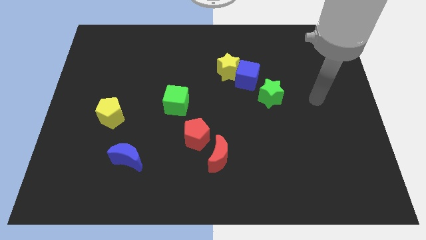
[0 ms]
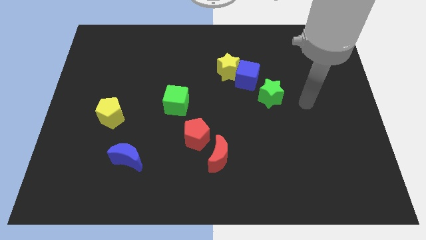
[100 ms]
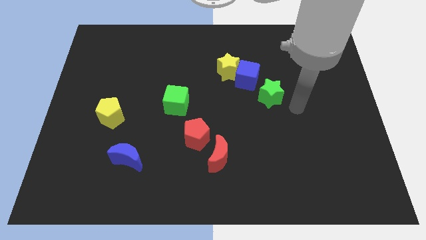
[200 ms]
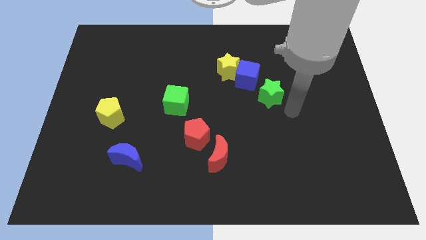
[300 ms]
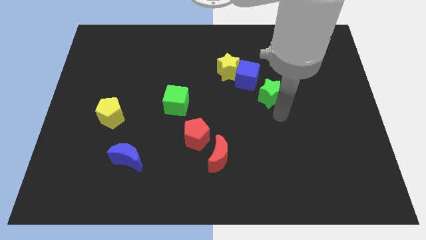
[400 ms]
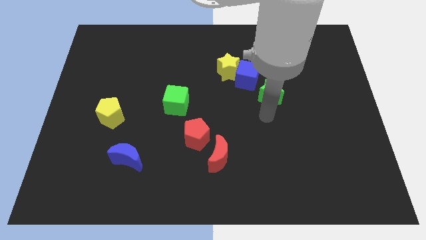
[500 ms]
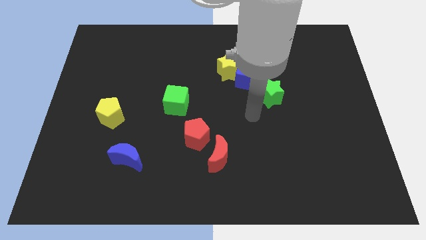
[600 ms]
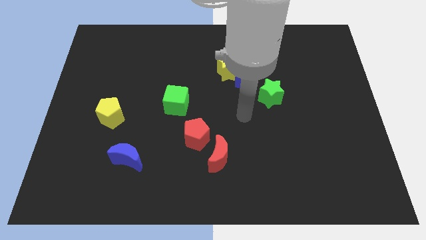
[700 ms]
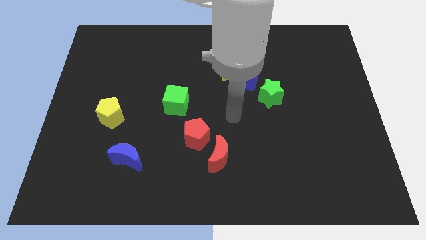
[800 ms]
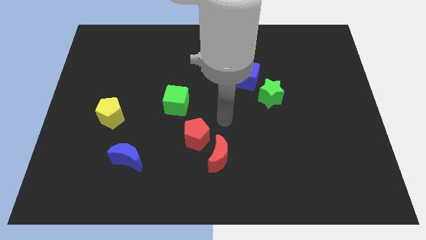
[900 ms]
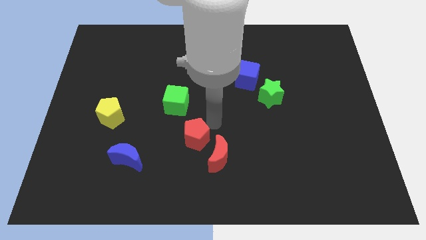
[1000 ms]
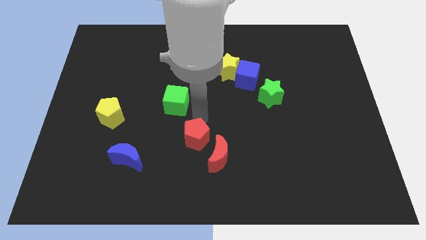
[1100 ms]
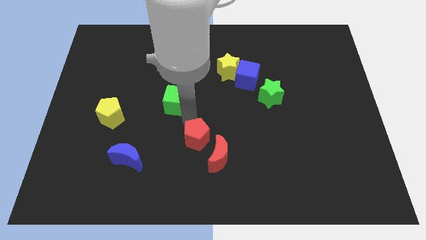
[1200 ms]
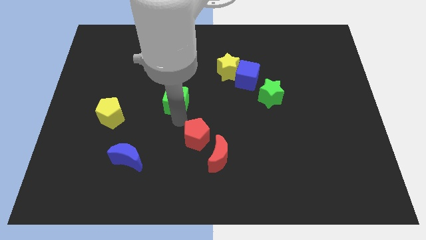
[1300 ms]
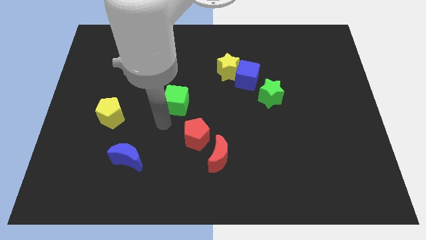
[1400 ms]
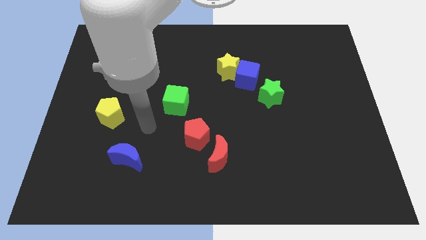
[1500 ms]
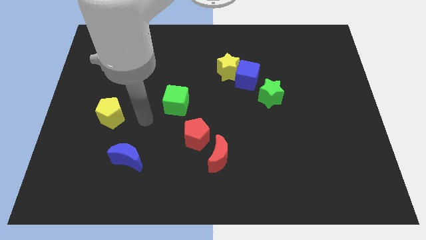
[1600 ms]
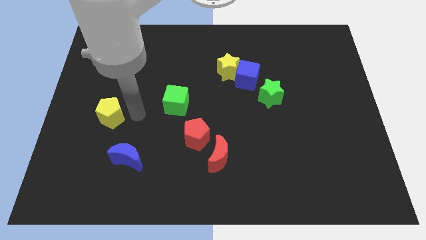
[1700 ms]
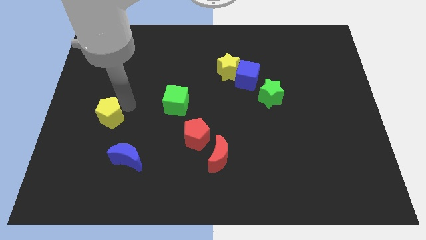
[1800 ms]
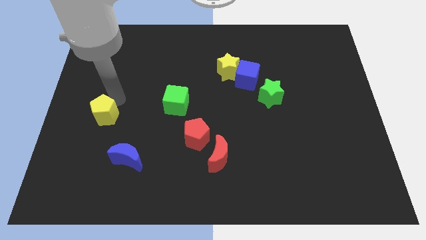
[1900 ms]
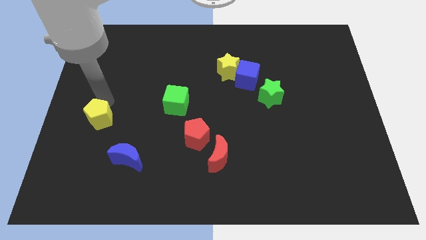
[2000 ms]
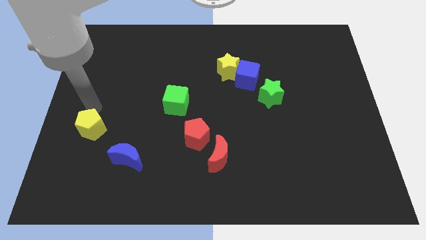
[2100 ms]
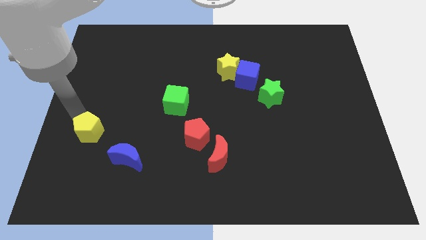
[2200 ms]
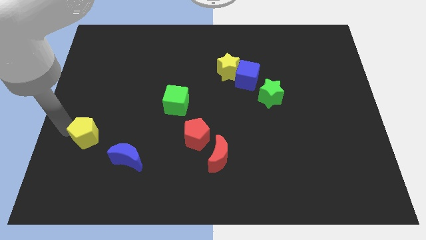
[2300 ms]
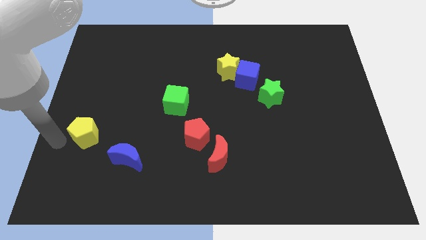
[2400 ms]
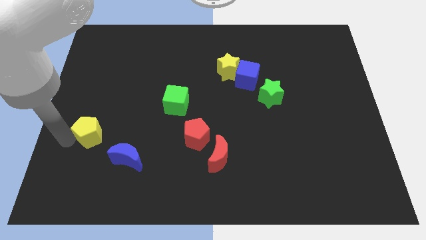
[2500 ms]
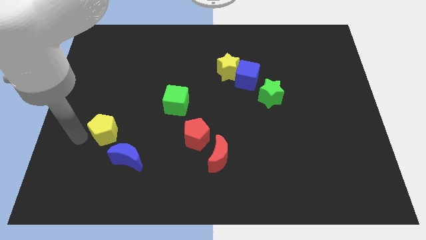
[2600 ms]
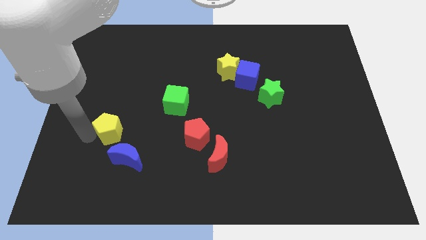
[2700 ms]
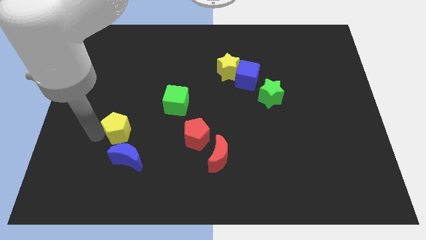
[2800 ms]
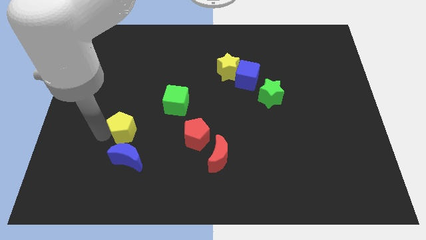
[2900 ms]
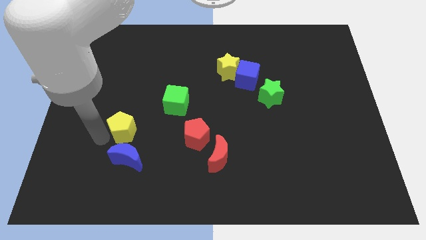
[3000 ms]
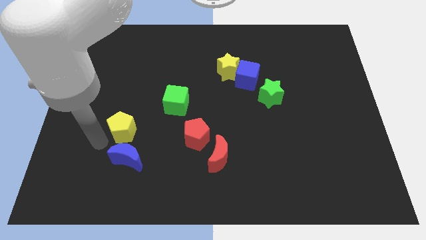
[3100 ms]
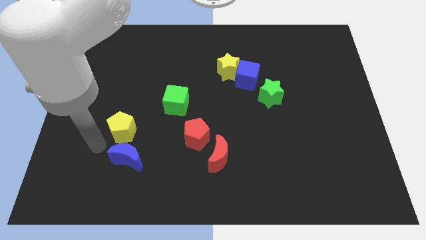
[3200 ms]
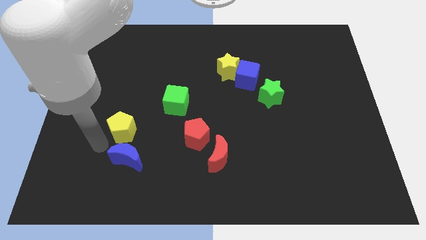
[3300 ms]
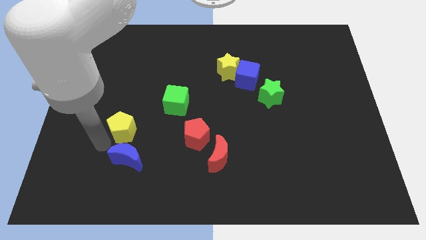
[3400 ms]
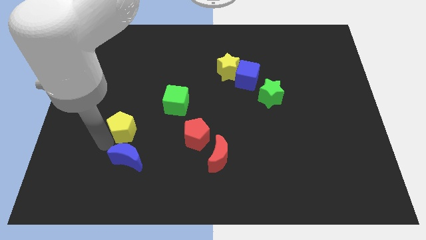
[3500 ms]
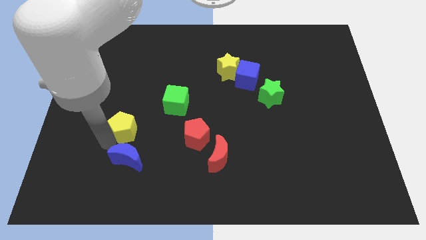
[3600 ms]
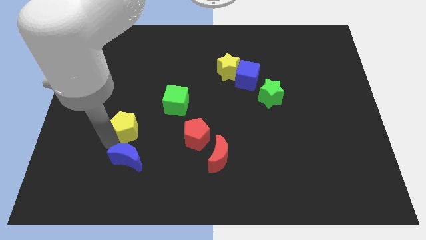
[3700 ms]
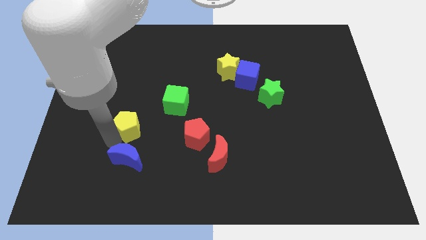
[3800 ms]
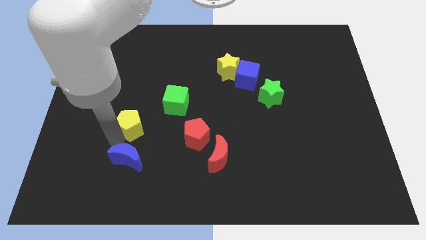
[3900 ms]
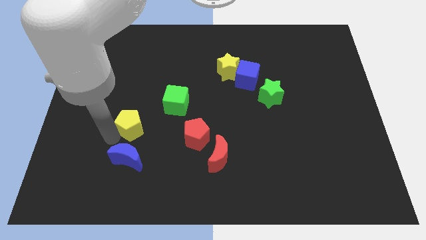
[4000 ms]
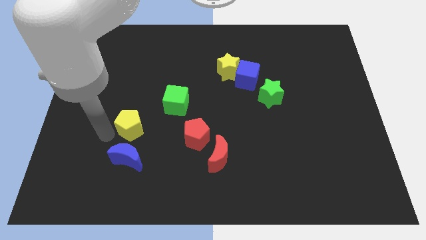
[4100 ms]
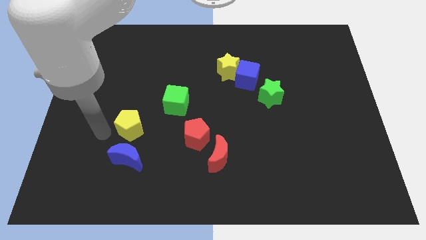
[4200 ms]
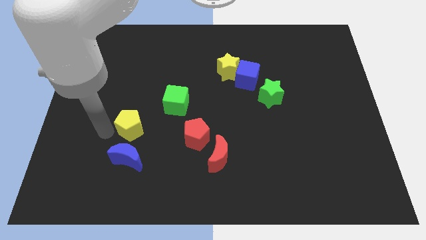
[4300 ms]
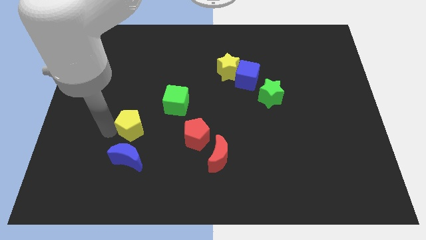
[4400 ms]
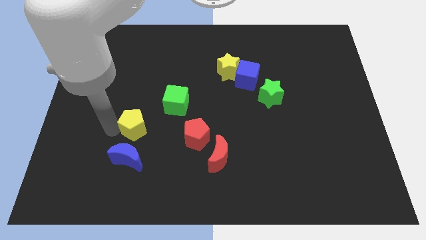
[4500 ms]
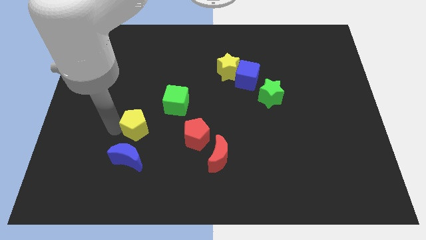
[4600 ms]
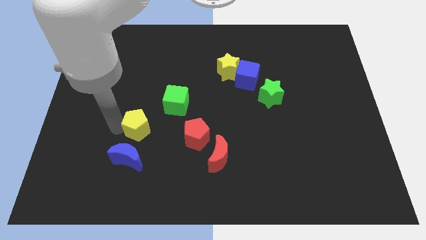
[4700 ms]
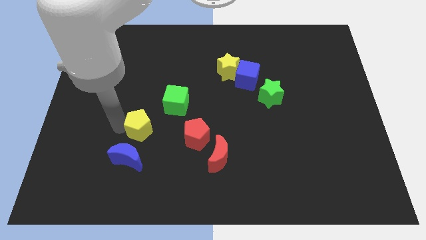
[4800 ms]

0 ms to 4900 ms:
slightly slide the yellow pentagon to the right

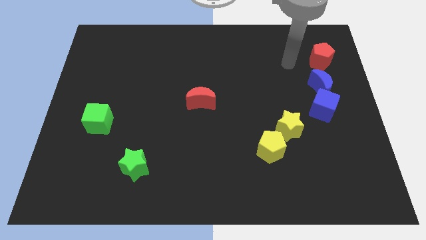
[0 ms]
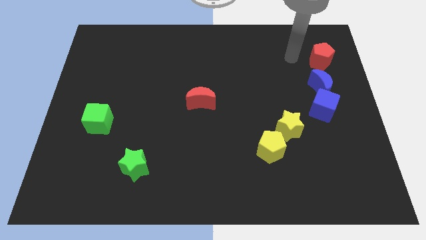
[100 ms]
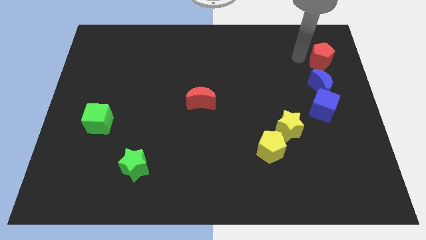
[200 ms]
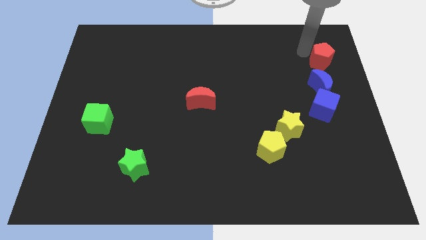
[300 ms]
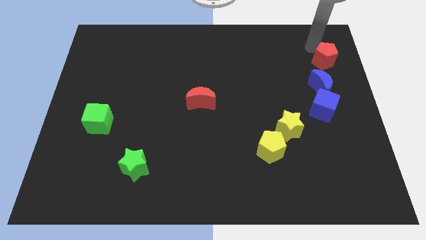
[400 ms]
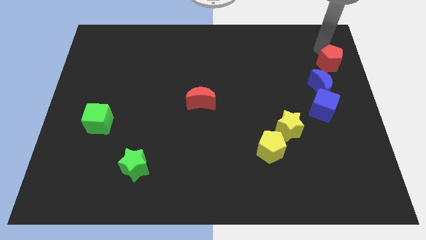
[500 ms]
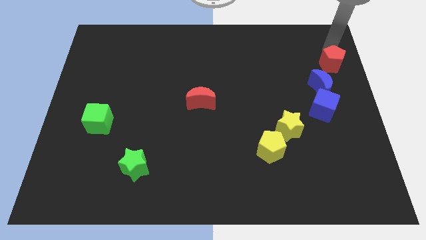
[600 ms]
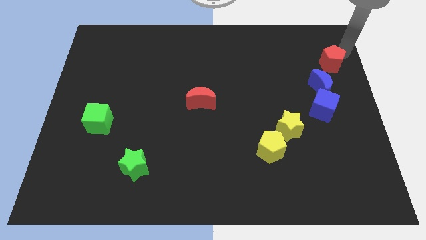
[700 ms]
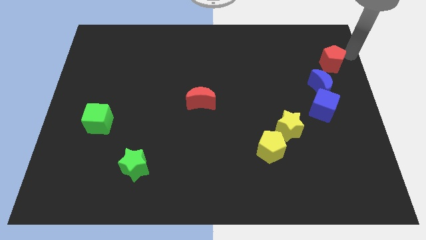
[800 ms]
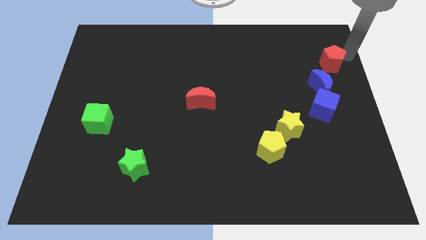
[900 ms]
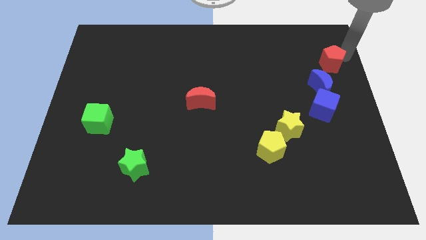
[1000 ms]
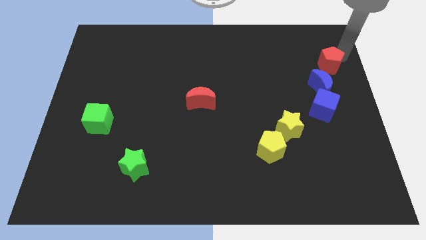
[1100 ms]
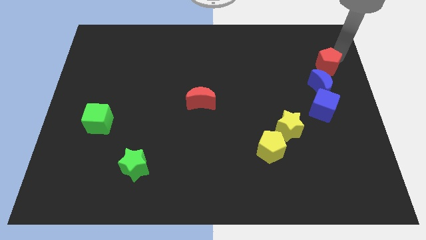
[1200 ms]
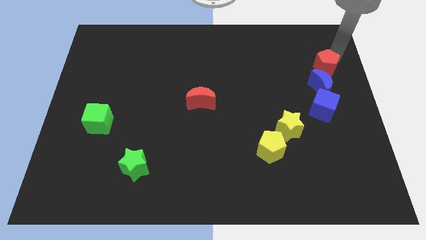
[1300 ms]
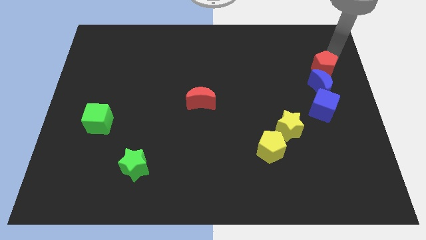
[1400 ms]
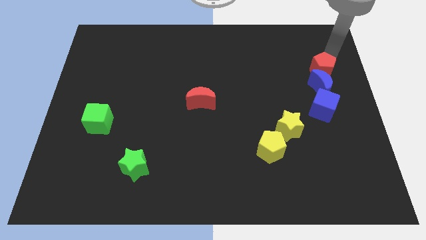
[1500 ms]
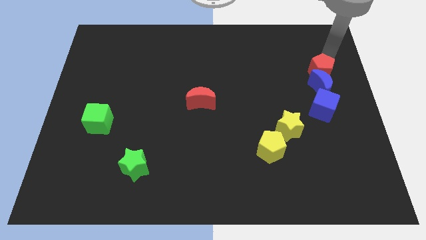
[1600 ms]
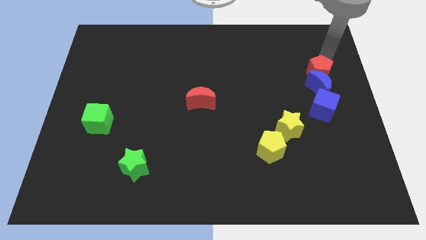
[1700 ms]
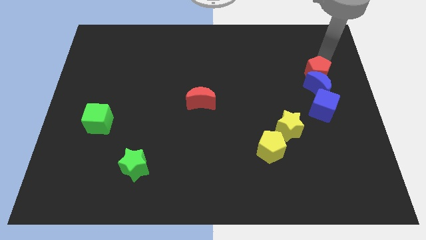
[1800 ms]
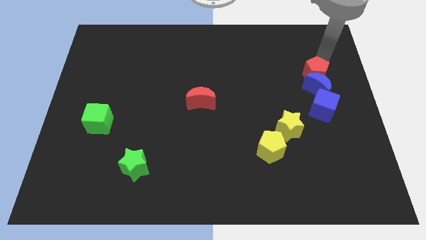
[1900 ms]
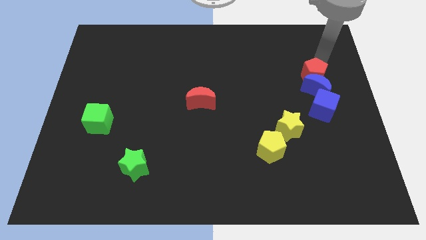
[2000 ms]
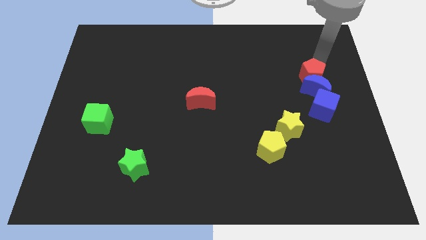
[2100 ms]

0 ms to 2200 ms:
push the red pentagon slightly diagonally down and to the left

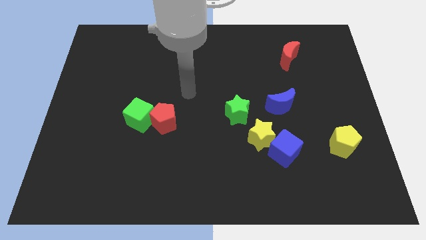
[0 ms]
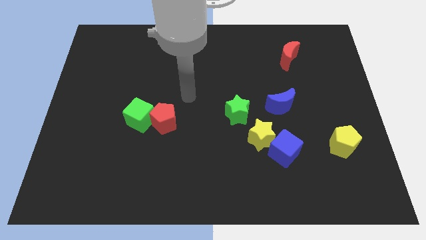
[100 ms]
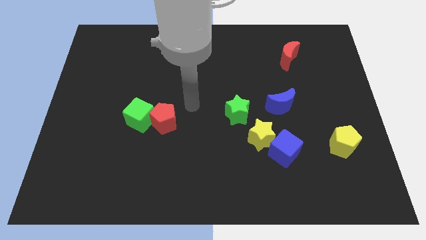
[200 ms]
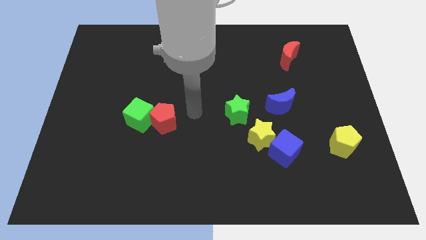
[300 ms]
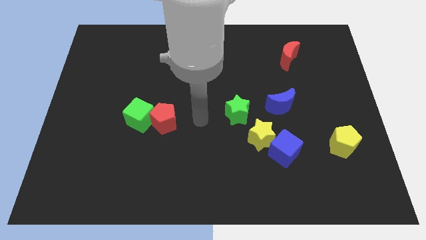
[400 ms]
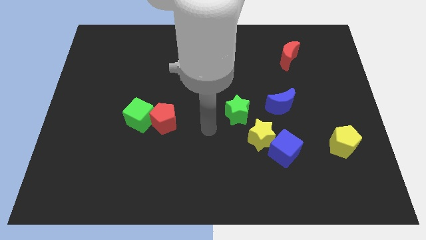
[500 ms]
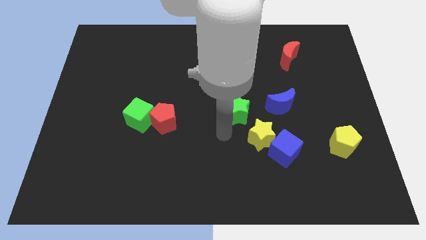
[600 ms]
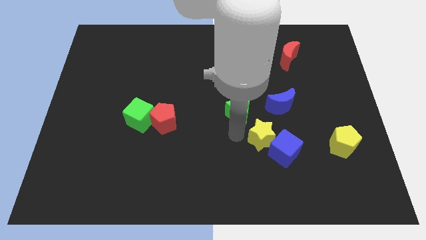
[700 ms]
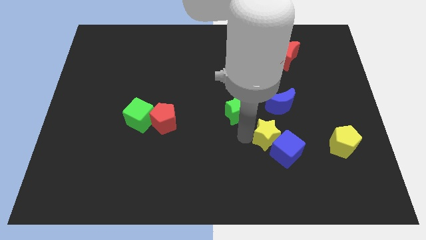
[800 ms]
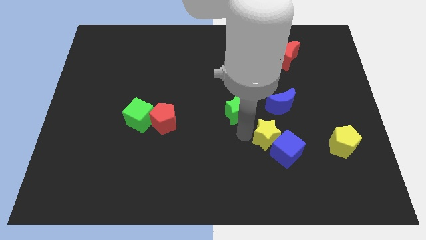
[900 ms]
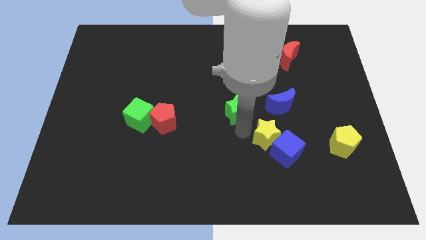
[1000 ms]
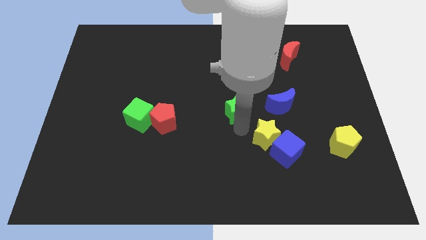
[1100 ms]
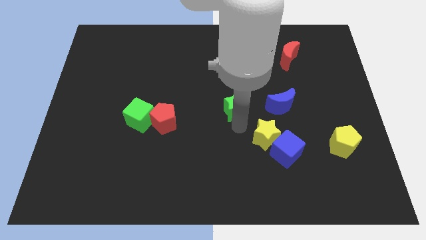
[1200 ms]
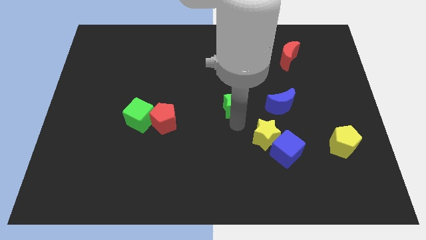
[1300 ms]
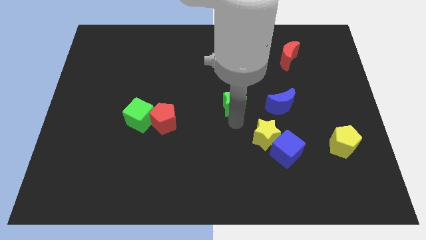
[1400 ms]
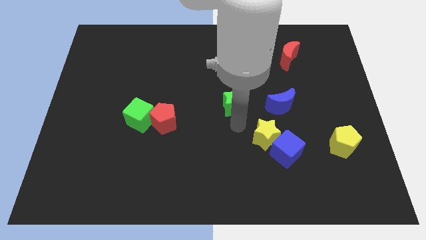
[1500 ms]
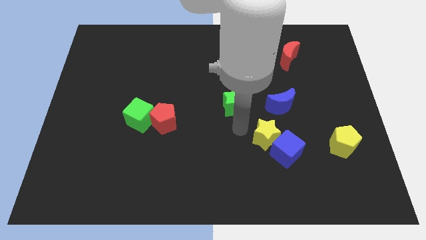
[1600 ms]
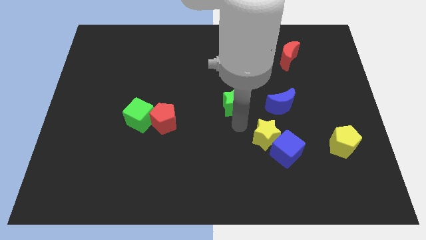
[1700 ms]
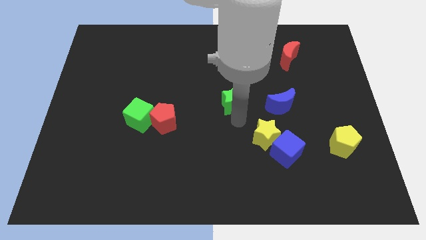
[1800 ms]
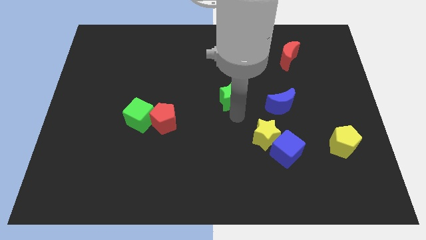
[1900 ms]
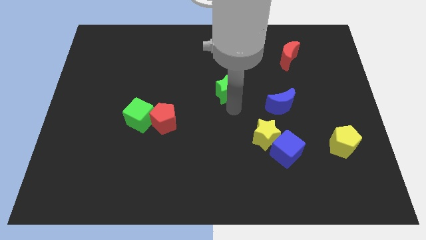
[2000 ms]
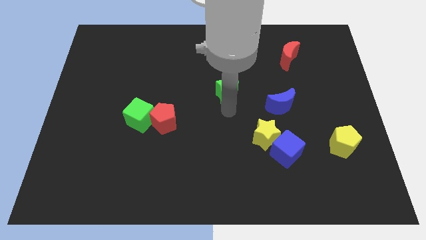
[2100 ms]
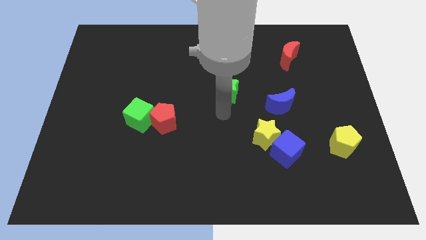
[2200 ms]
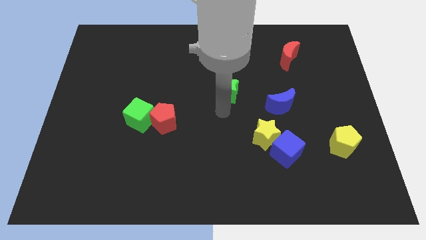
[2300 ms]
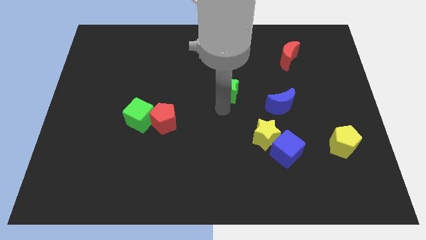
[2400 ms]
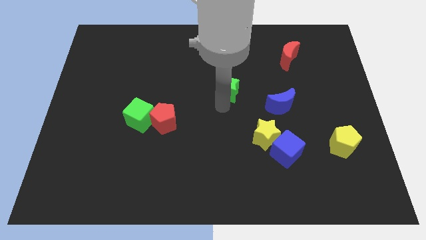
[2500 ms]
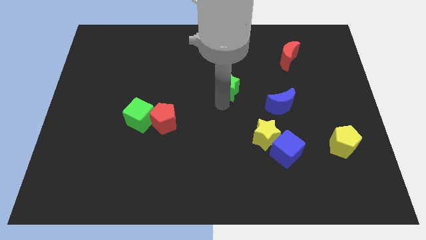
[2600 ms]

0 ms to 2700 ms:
move the green star somewhat upwards
